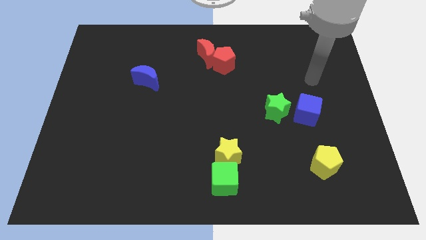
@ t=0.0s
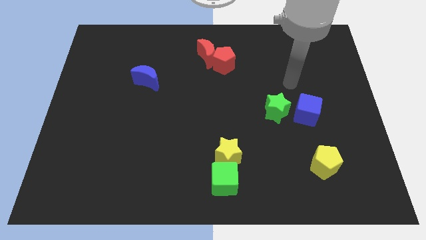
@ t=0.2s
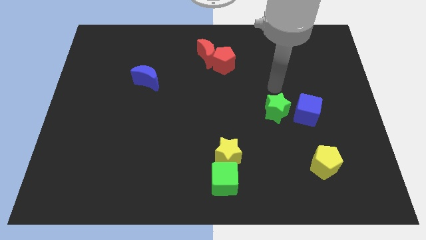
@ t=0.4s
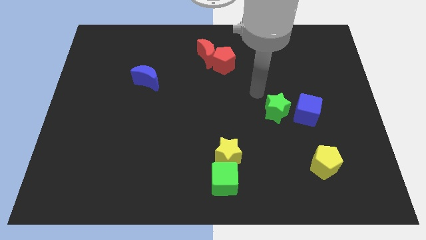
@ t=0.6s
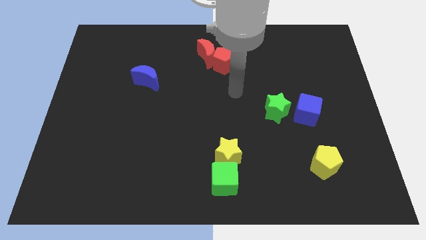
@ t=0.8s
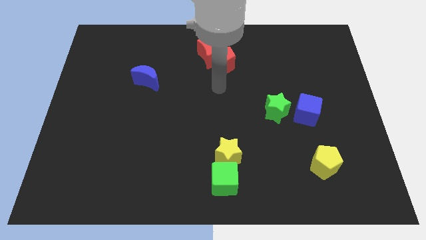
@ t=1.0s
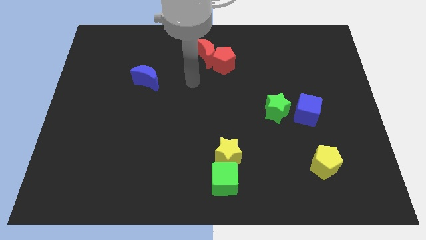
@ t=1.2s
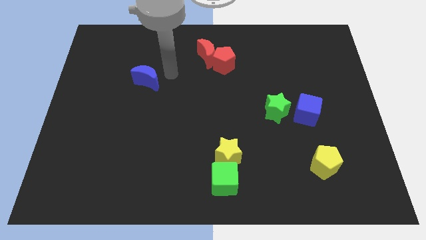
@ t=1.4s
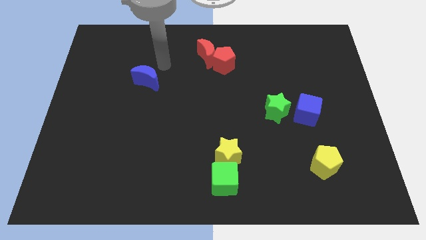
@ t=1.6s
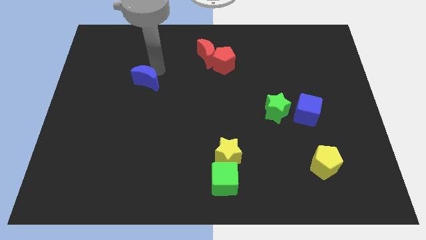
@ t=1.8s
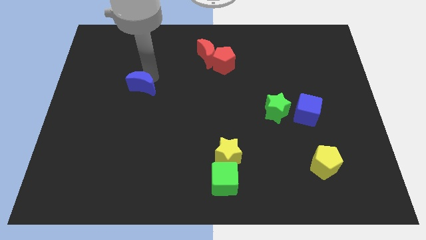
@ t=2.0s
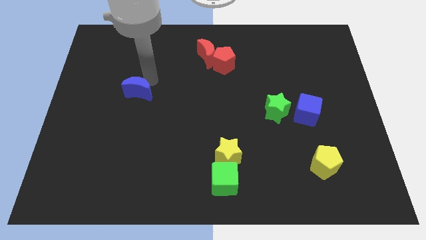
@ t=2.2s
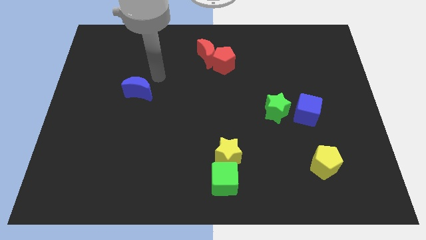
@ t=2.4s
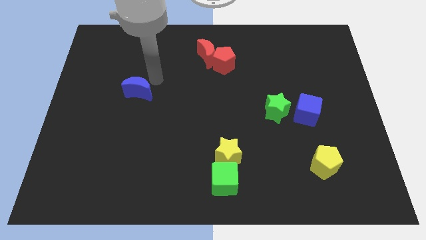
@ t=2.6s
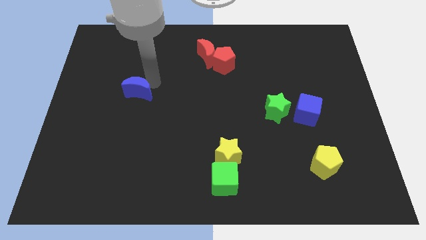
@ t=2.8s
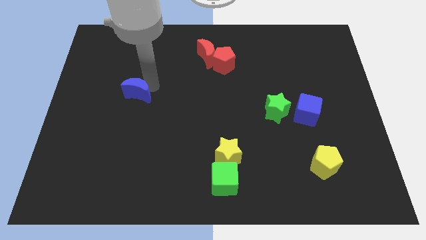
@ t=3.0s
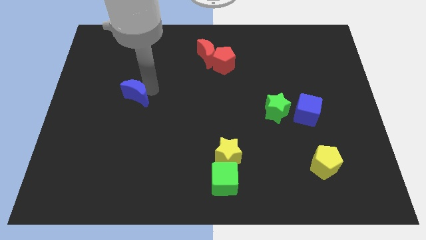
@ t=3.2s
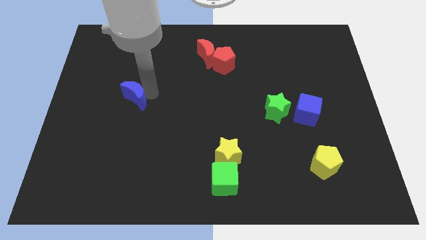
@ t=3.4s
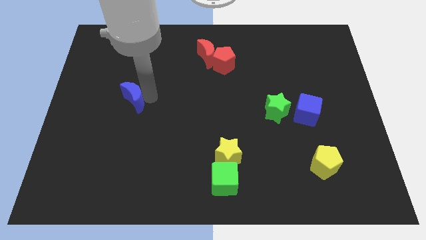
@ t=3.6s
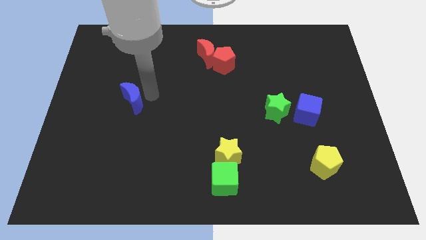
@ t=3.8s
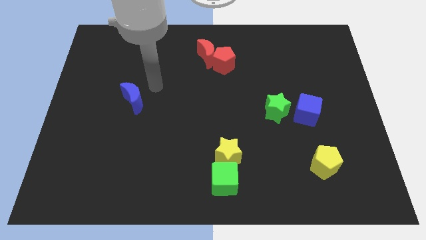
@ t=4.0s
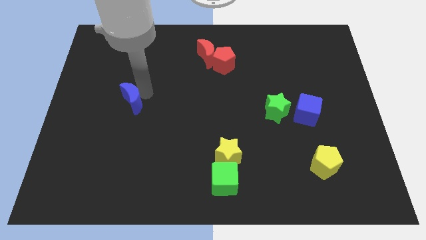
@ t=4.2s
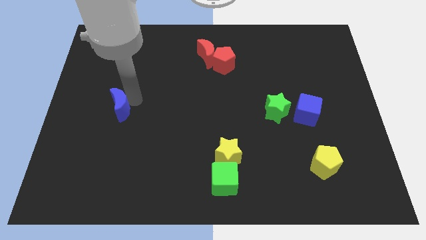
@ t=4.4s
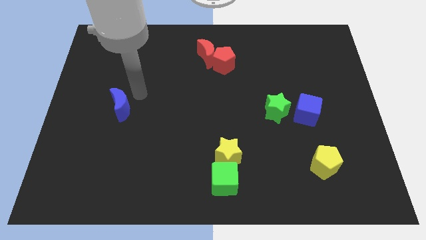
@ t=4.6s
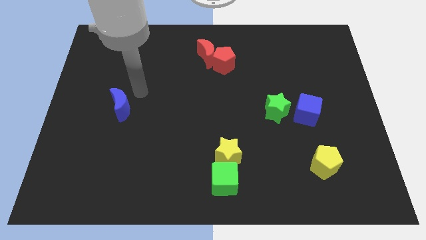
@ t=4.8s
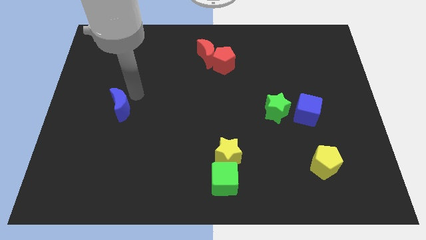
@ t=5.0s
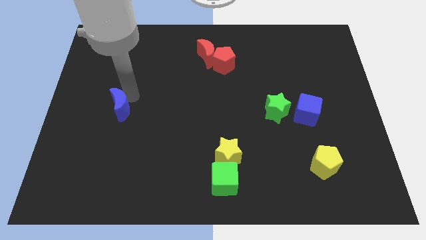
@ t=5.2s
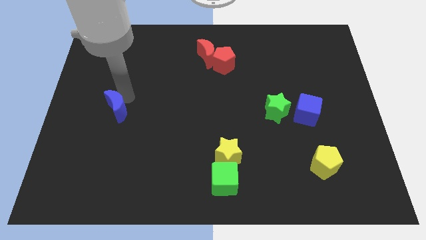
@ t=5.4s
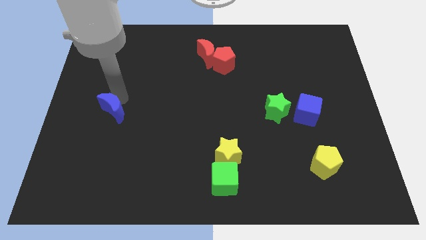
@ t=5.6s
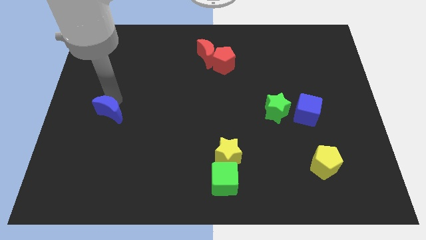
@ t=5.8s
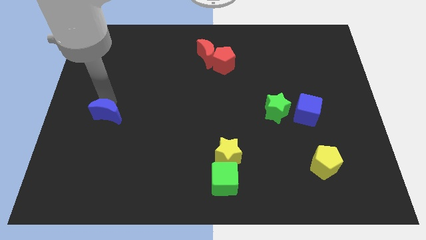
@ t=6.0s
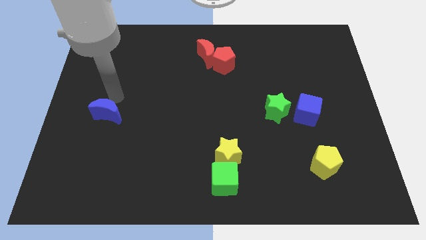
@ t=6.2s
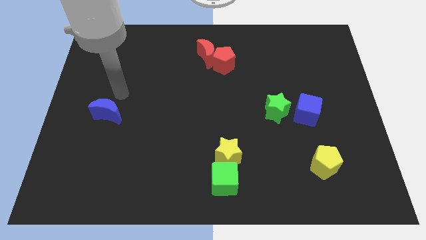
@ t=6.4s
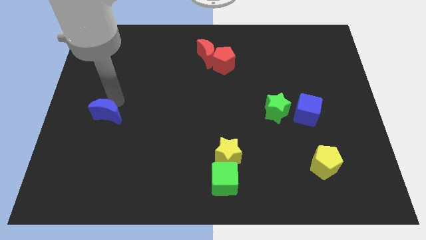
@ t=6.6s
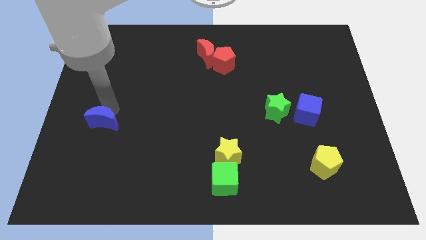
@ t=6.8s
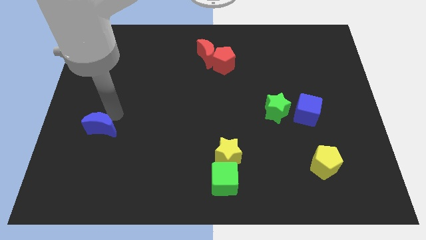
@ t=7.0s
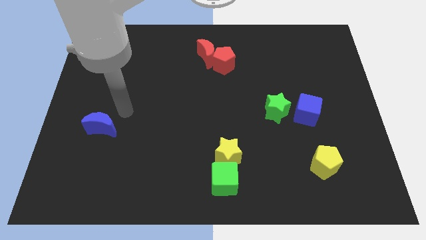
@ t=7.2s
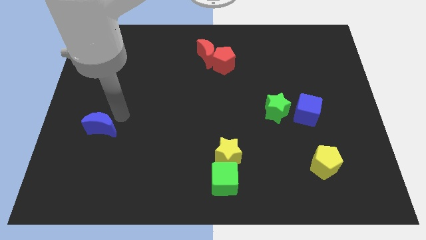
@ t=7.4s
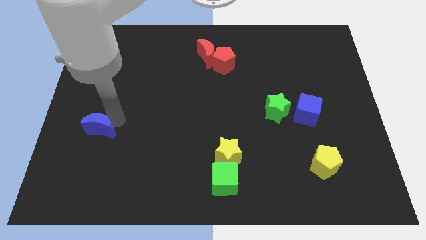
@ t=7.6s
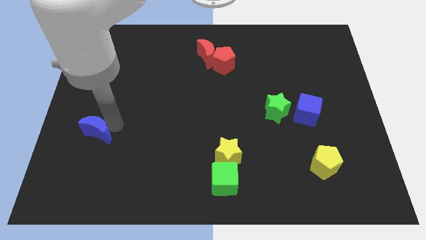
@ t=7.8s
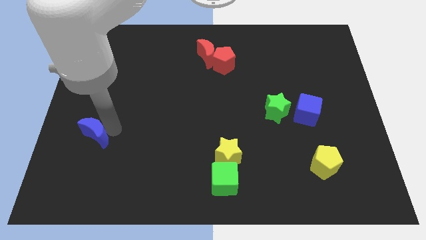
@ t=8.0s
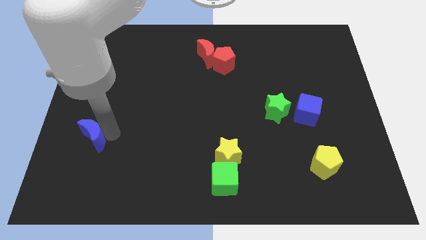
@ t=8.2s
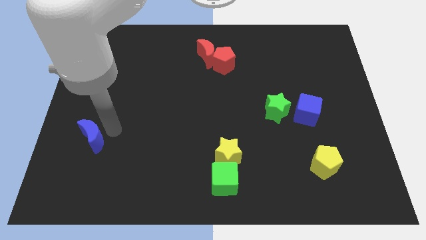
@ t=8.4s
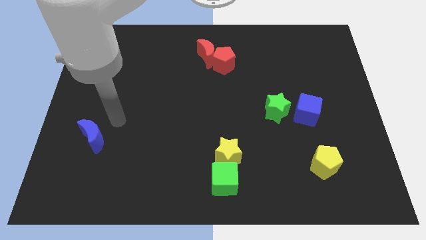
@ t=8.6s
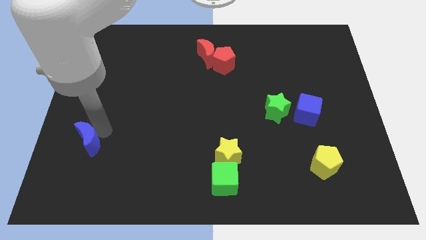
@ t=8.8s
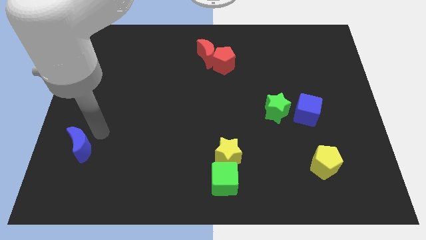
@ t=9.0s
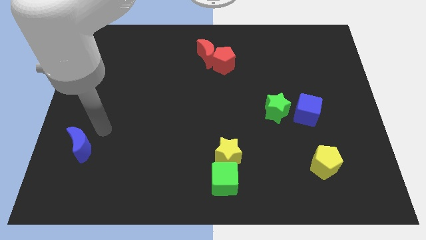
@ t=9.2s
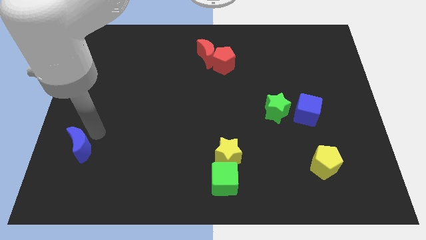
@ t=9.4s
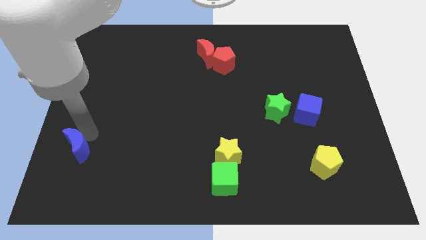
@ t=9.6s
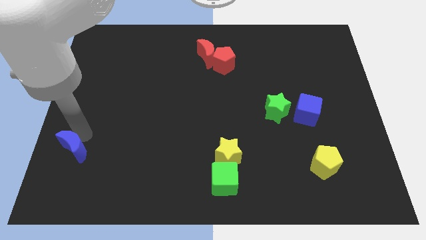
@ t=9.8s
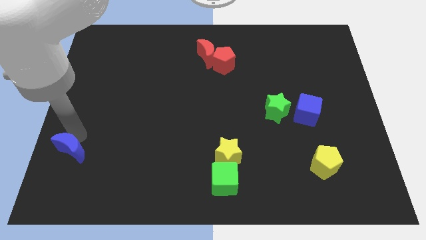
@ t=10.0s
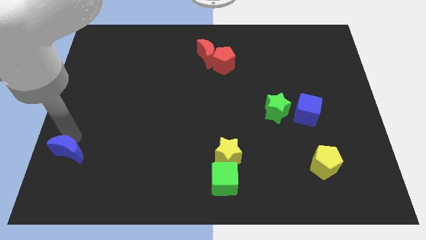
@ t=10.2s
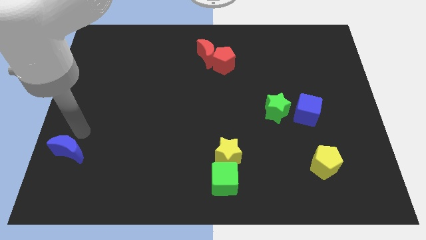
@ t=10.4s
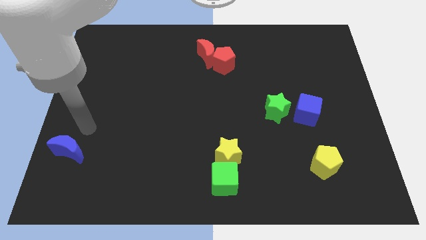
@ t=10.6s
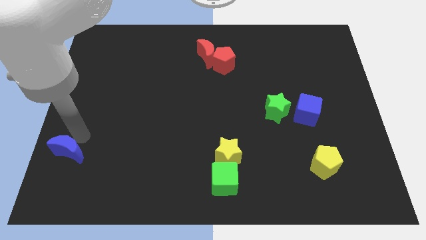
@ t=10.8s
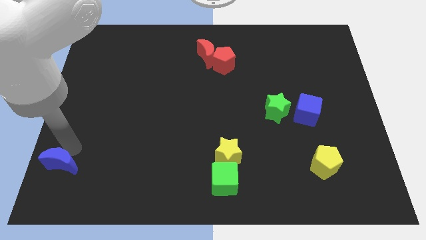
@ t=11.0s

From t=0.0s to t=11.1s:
move the blue moon to the bottom left

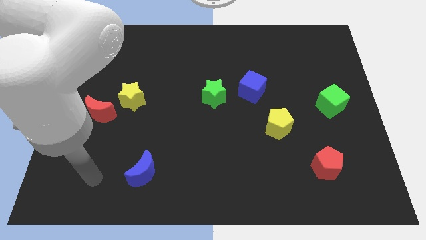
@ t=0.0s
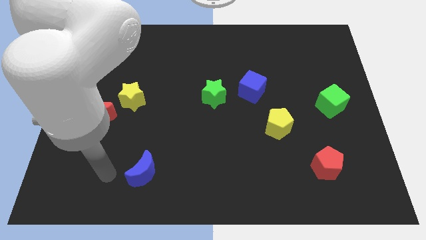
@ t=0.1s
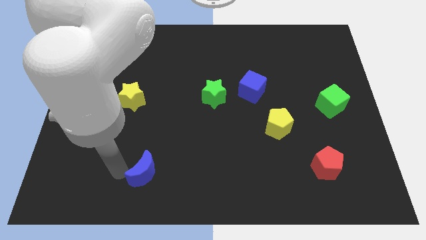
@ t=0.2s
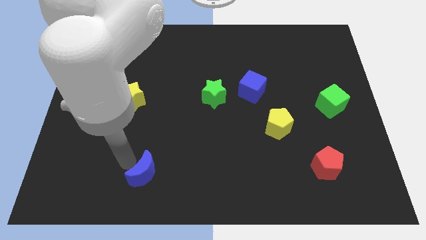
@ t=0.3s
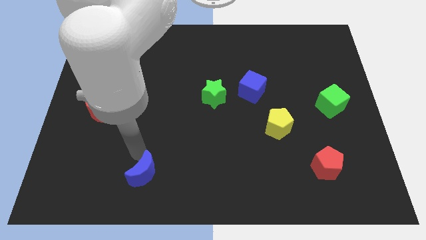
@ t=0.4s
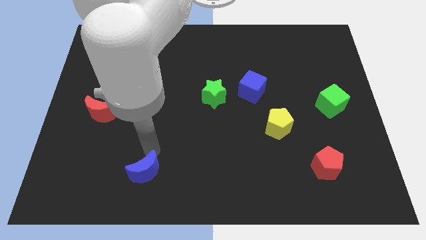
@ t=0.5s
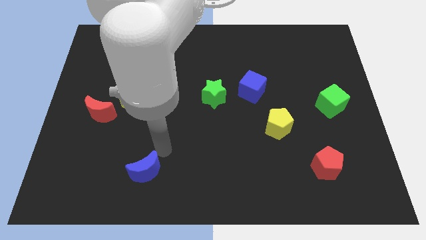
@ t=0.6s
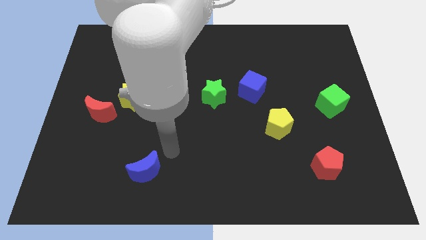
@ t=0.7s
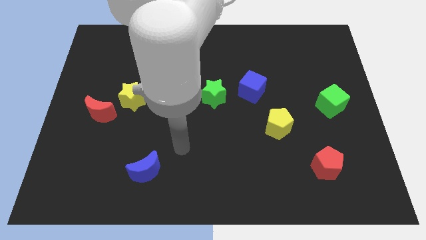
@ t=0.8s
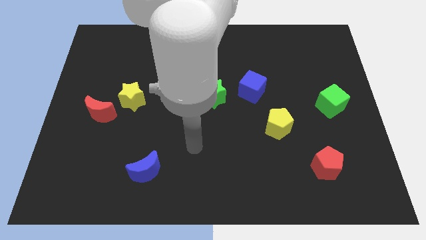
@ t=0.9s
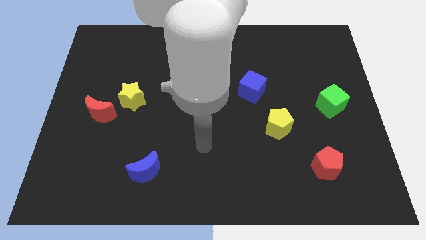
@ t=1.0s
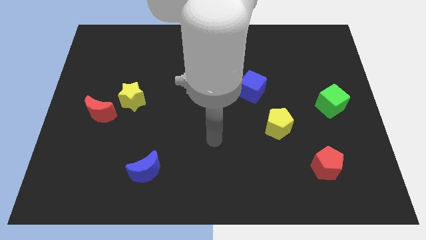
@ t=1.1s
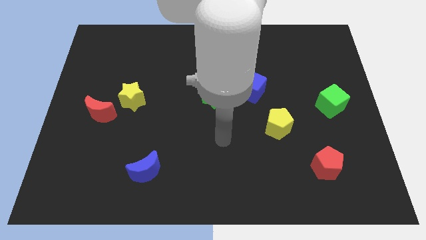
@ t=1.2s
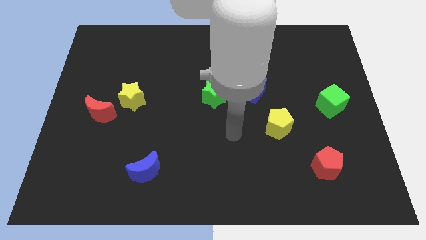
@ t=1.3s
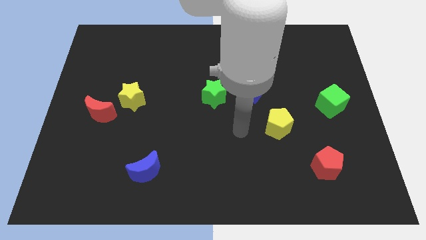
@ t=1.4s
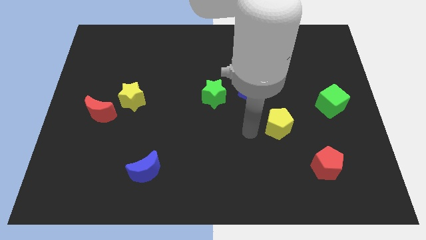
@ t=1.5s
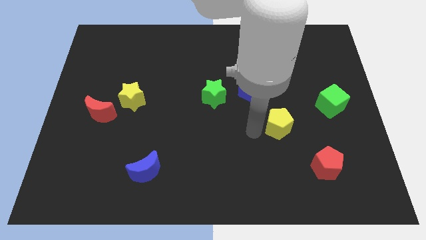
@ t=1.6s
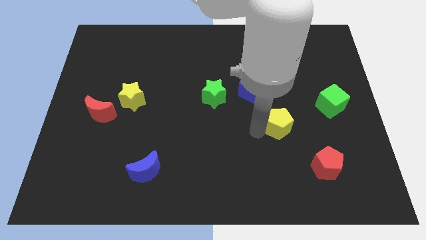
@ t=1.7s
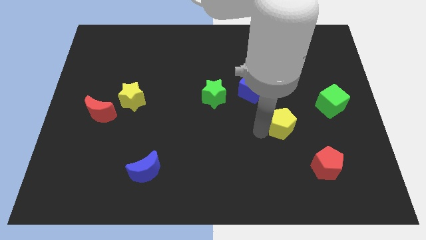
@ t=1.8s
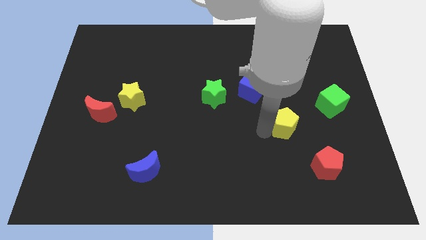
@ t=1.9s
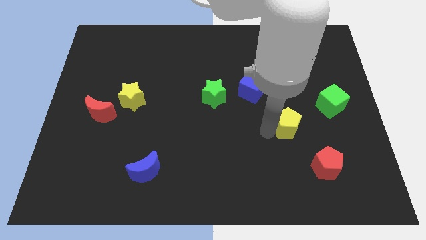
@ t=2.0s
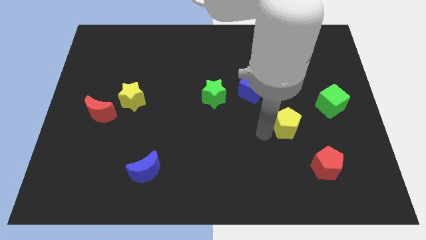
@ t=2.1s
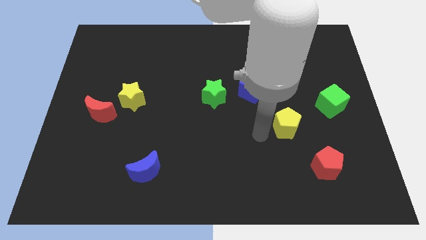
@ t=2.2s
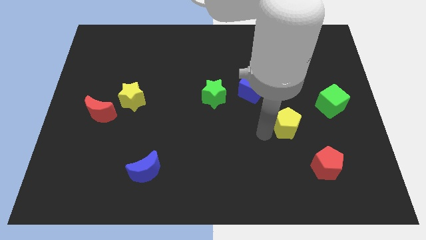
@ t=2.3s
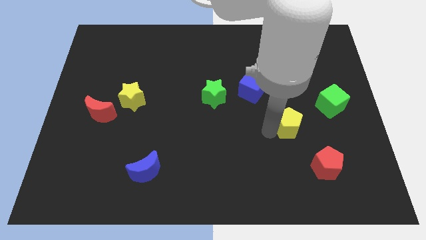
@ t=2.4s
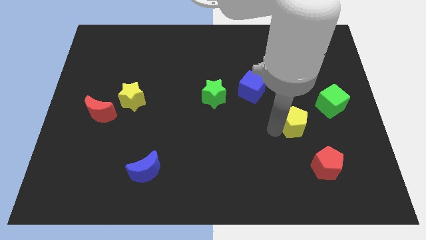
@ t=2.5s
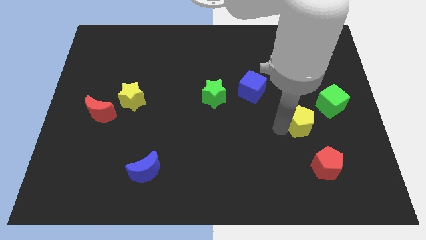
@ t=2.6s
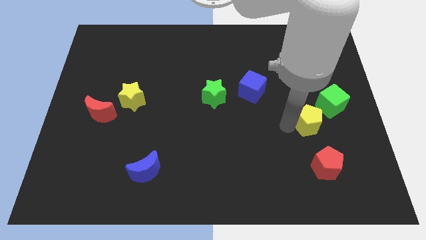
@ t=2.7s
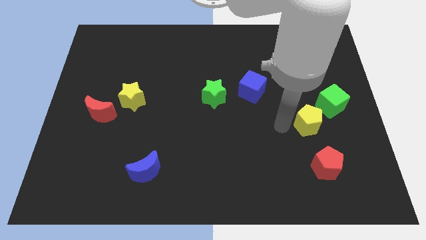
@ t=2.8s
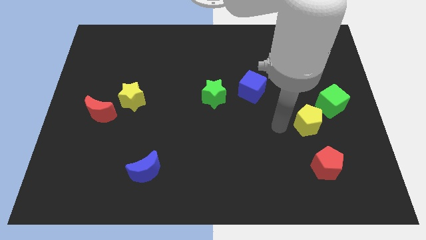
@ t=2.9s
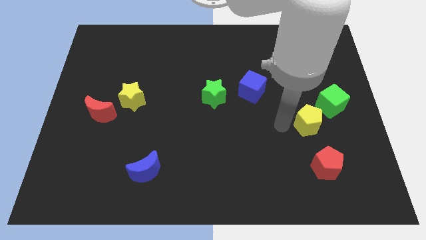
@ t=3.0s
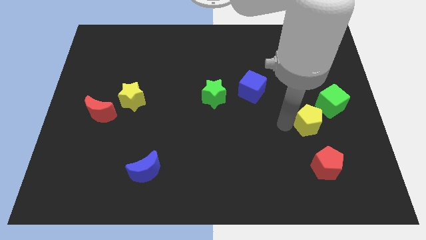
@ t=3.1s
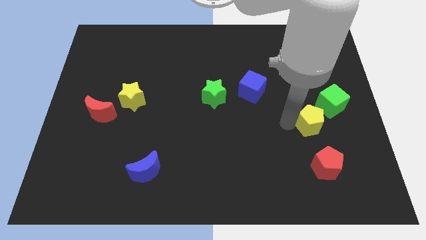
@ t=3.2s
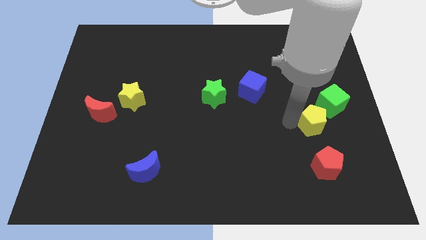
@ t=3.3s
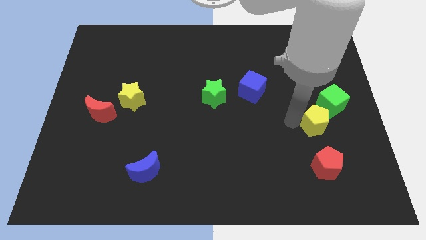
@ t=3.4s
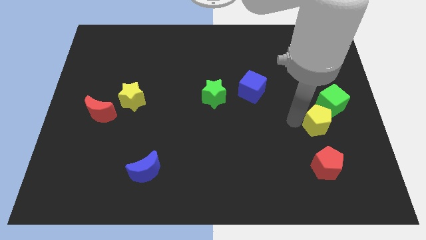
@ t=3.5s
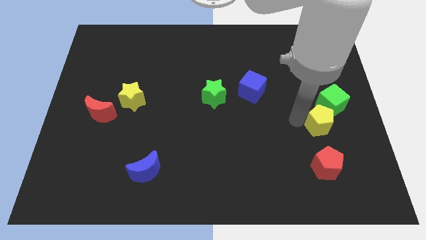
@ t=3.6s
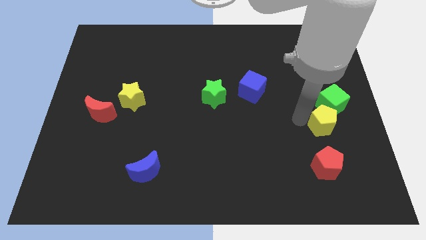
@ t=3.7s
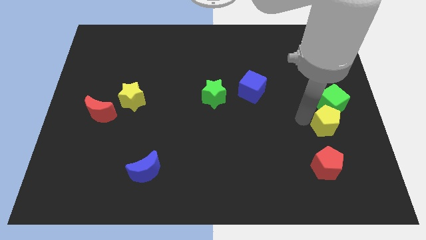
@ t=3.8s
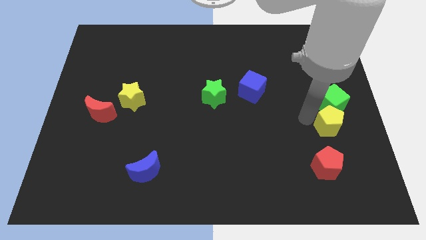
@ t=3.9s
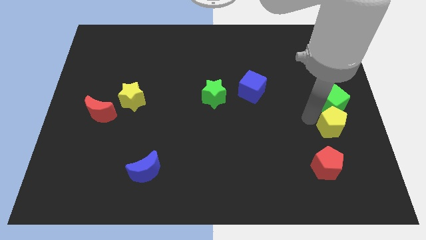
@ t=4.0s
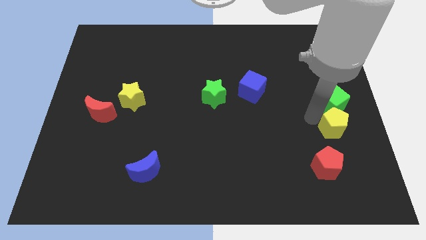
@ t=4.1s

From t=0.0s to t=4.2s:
push the yellow pentagon to the center right
